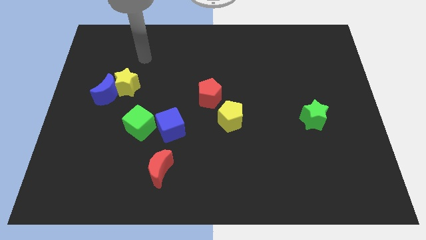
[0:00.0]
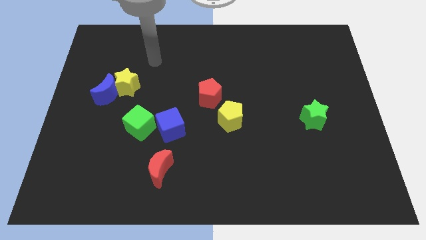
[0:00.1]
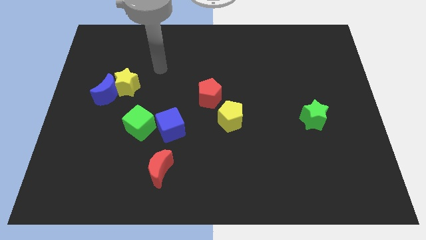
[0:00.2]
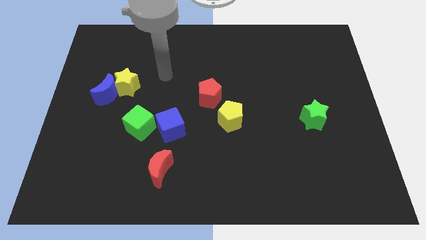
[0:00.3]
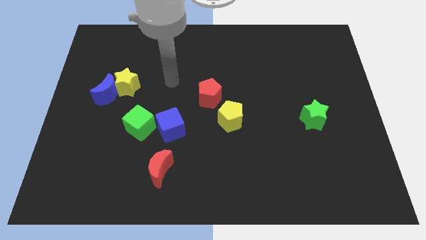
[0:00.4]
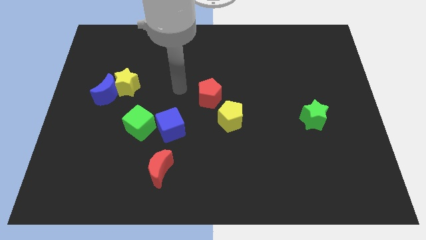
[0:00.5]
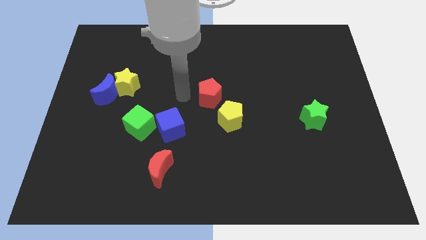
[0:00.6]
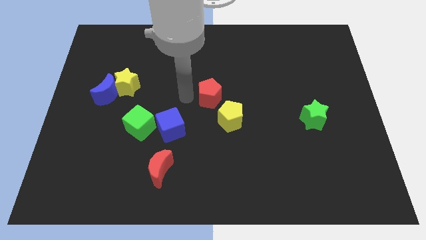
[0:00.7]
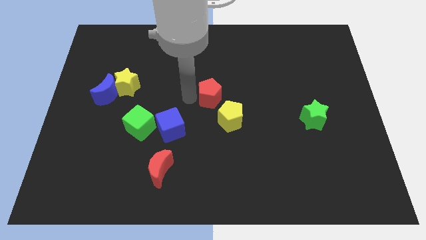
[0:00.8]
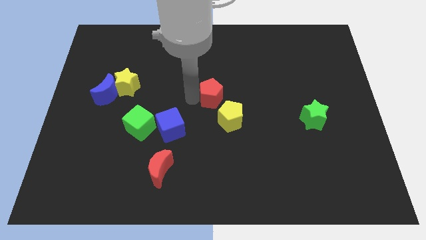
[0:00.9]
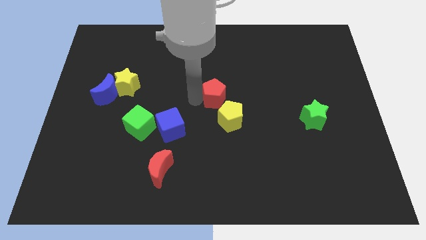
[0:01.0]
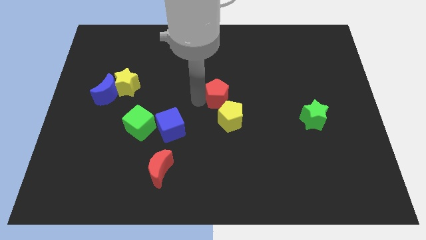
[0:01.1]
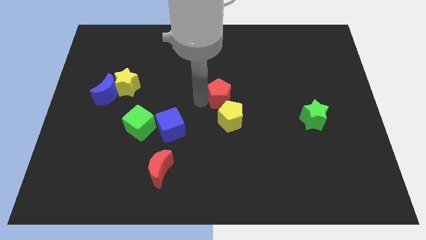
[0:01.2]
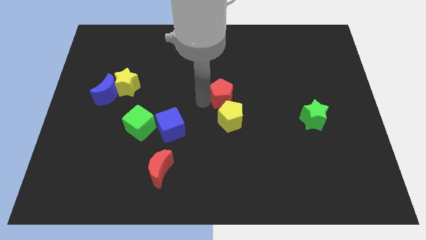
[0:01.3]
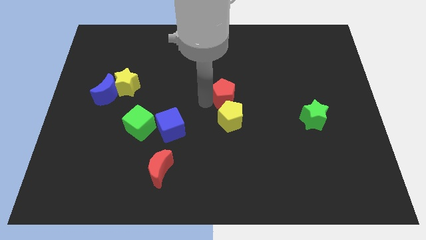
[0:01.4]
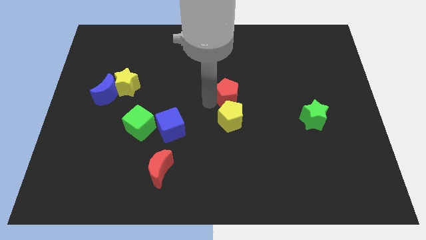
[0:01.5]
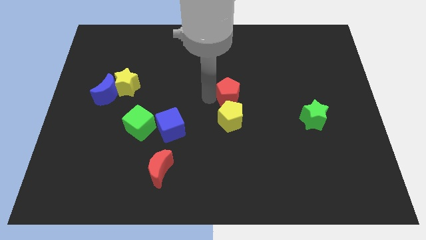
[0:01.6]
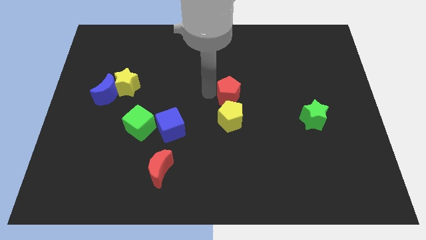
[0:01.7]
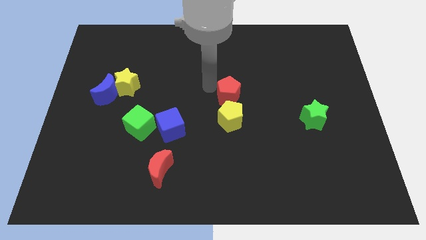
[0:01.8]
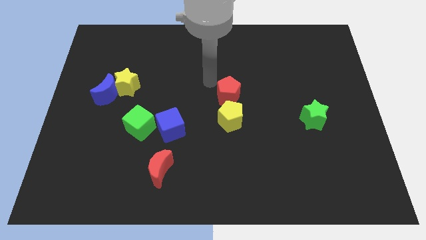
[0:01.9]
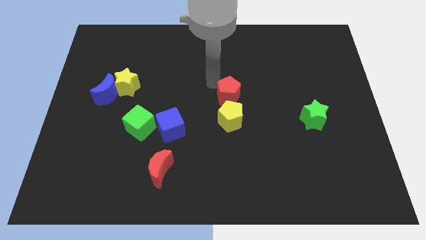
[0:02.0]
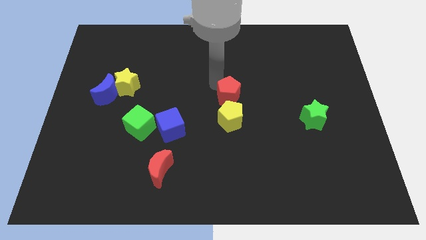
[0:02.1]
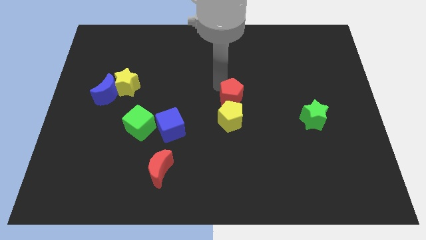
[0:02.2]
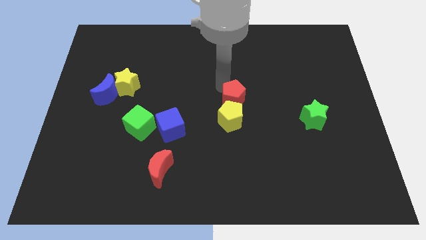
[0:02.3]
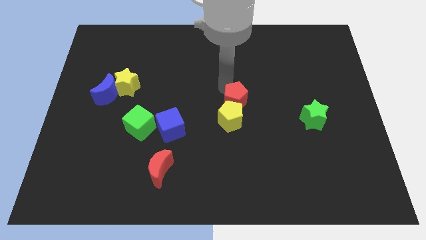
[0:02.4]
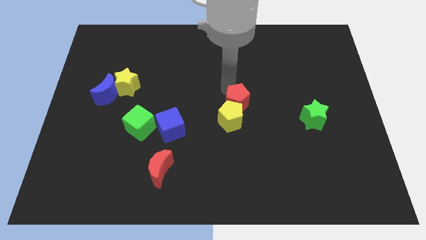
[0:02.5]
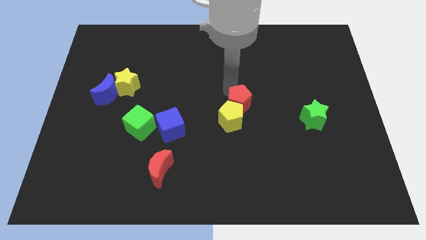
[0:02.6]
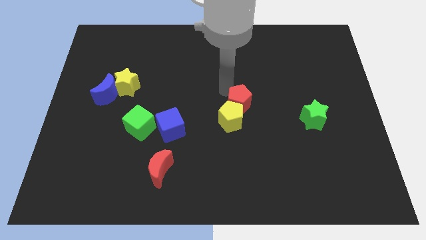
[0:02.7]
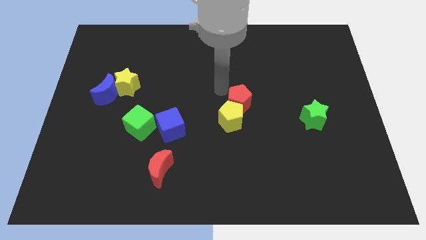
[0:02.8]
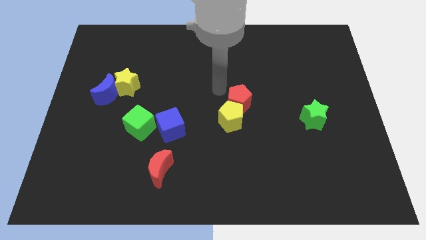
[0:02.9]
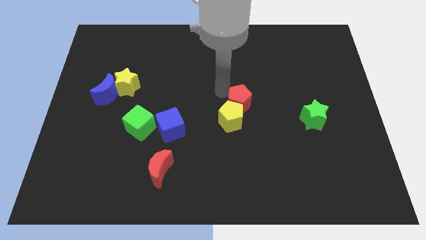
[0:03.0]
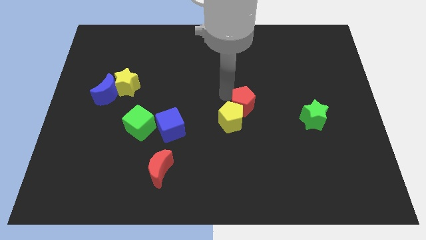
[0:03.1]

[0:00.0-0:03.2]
slightly slide the red pentagon downwards and then to the right

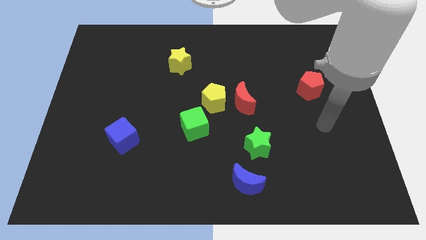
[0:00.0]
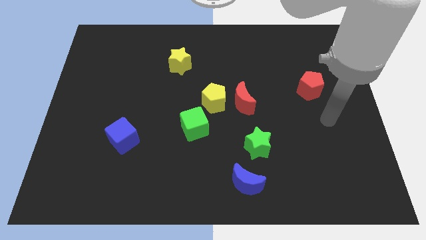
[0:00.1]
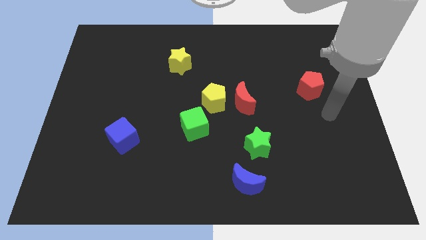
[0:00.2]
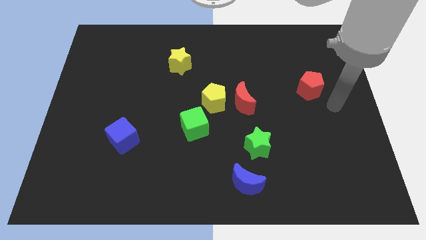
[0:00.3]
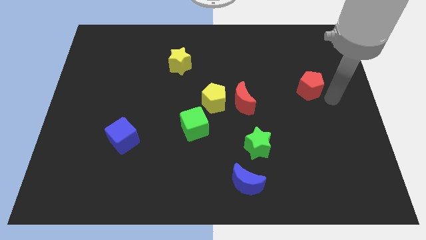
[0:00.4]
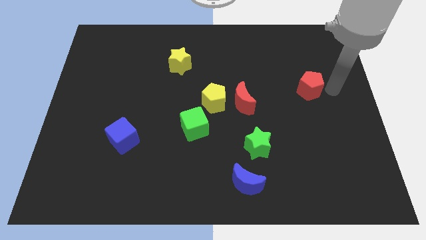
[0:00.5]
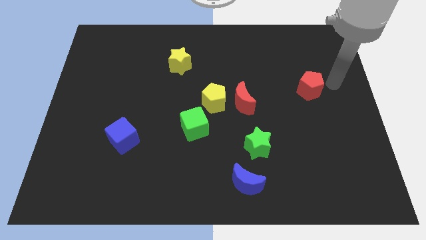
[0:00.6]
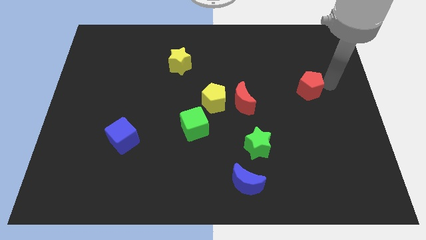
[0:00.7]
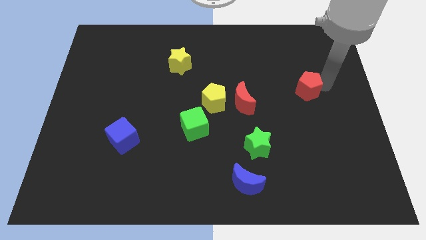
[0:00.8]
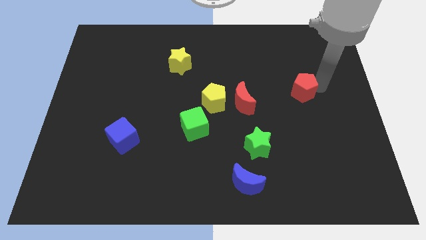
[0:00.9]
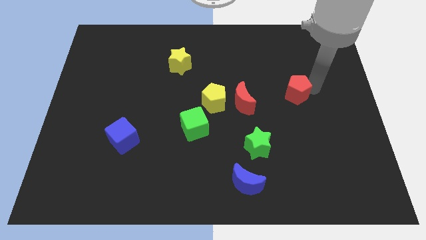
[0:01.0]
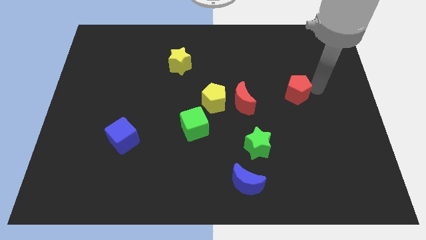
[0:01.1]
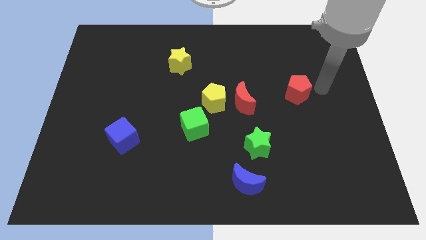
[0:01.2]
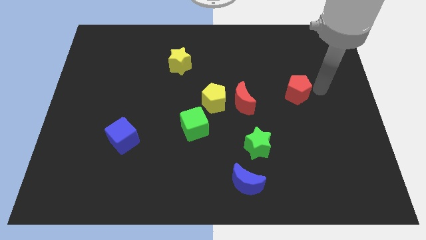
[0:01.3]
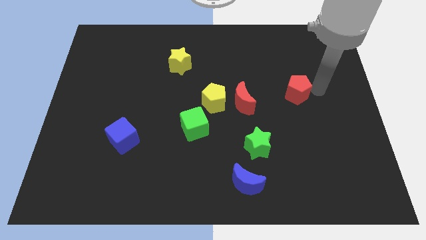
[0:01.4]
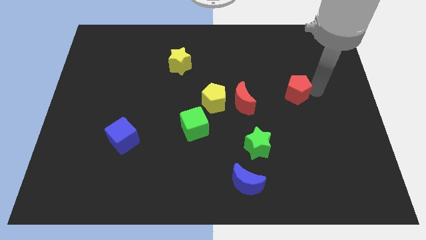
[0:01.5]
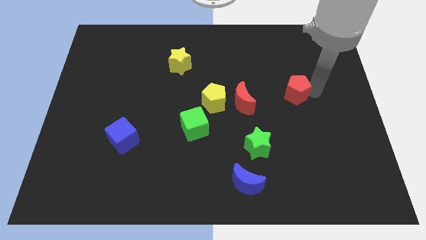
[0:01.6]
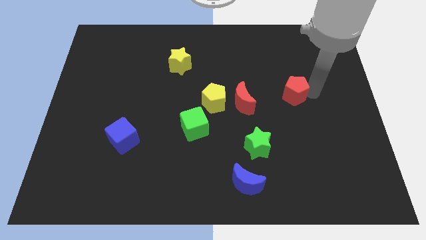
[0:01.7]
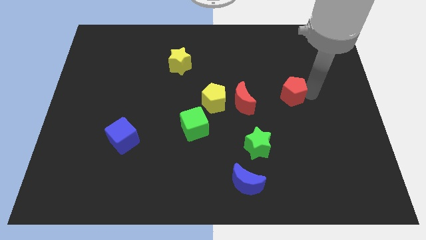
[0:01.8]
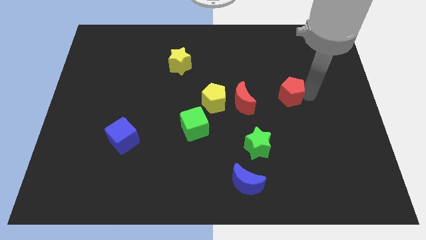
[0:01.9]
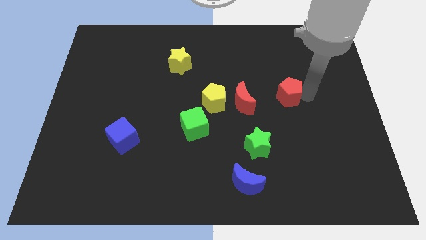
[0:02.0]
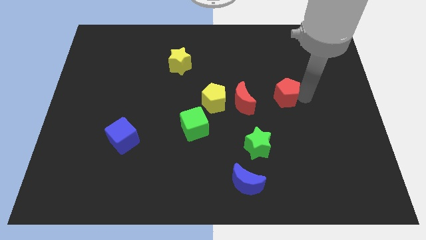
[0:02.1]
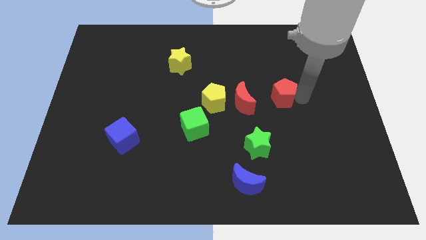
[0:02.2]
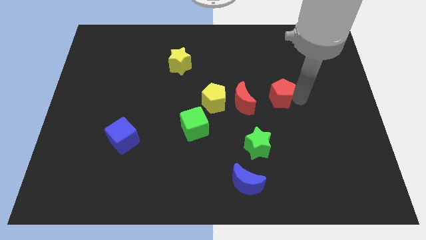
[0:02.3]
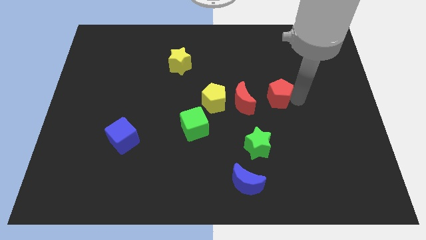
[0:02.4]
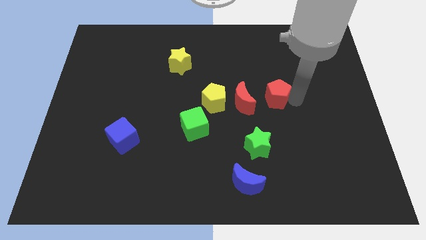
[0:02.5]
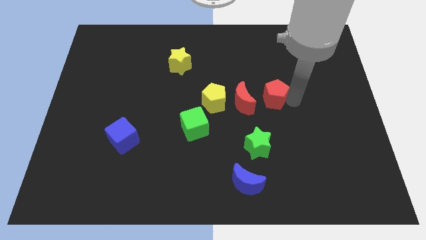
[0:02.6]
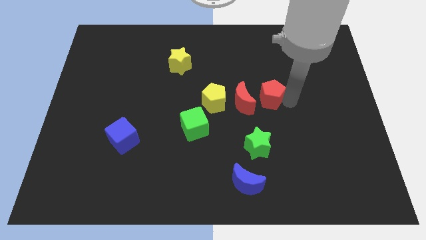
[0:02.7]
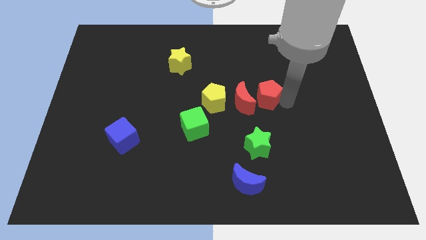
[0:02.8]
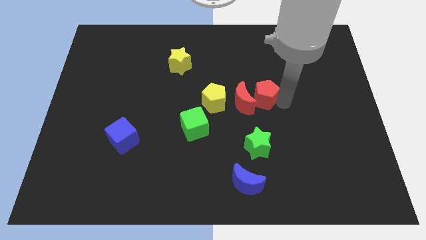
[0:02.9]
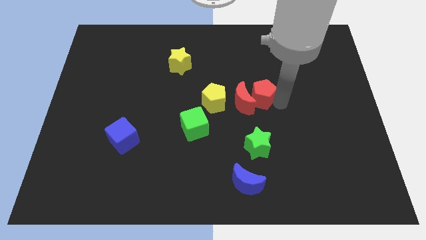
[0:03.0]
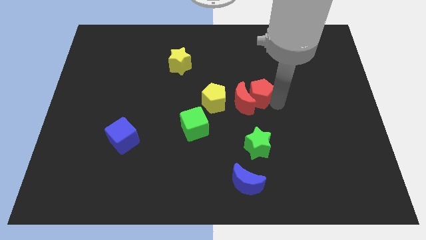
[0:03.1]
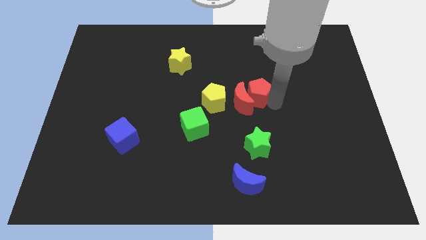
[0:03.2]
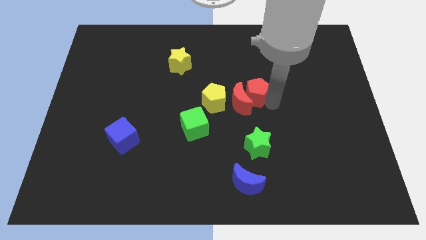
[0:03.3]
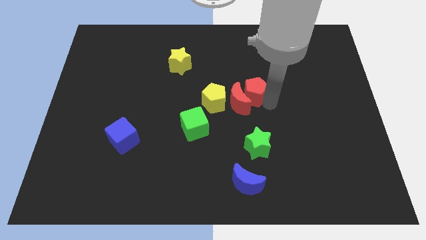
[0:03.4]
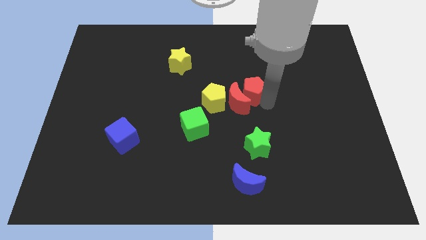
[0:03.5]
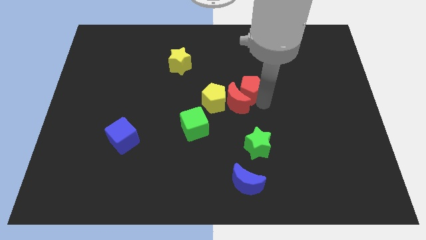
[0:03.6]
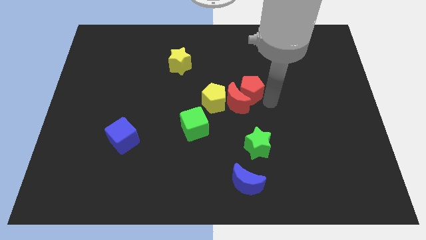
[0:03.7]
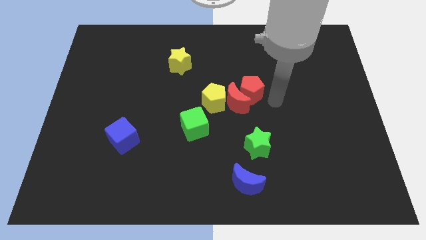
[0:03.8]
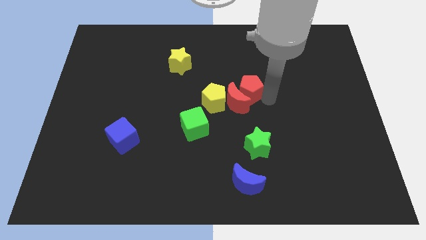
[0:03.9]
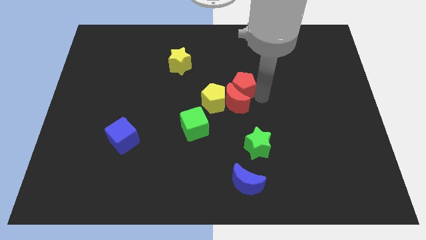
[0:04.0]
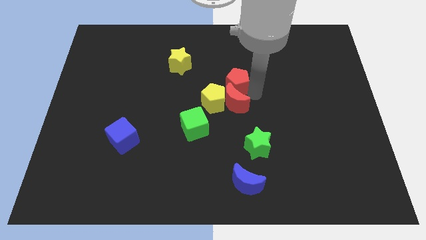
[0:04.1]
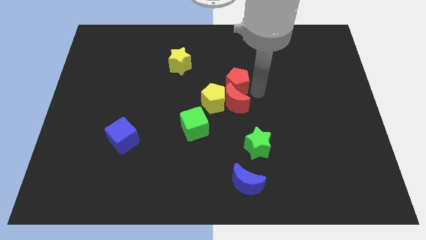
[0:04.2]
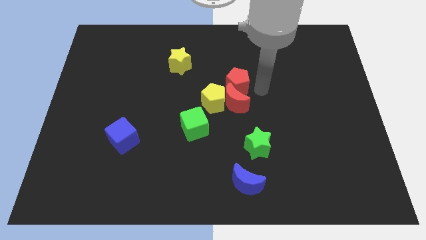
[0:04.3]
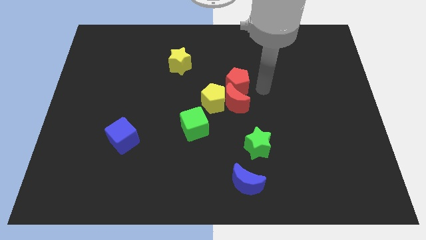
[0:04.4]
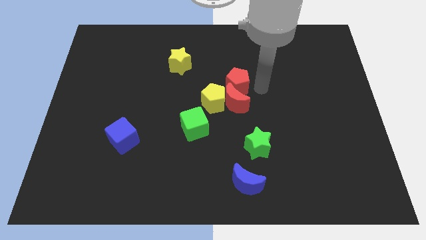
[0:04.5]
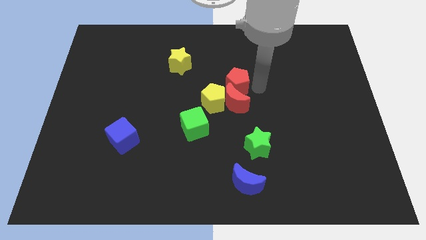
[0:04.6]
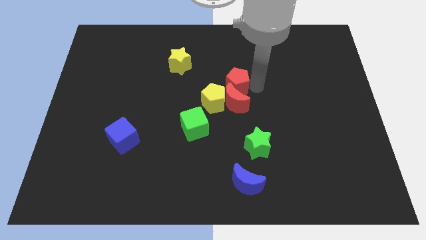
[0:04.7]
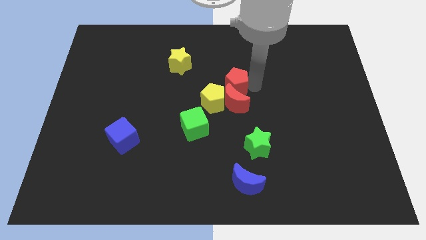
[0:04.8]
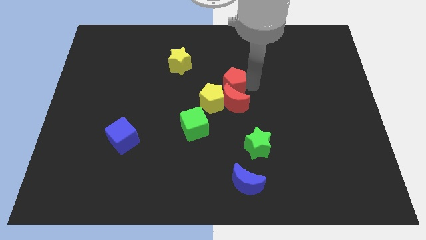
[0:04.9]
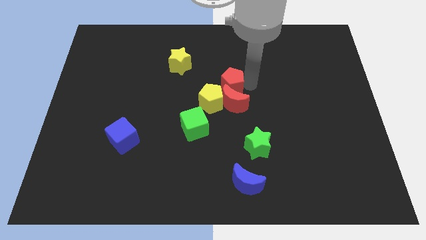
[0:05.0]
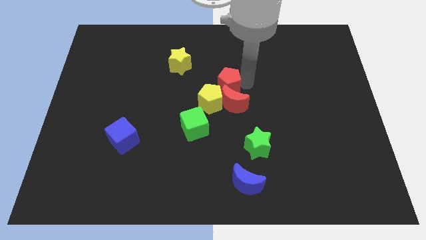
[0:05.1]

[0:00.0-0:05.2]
slide the red pentagon left

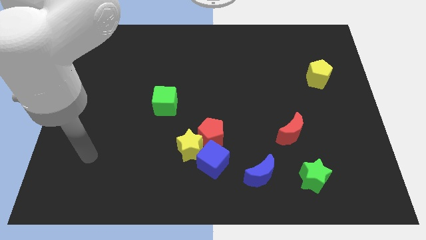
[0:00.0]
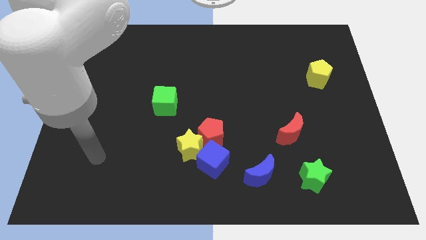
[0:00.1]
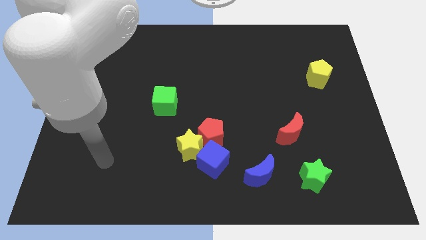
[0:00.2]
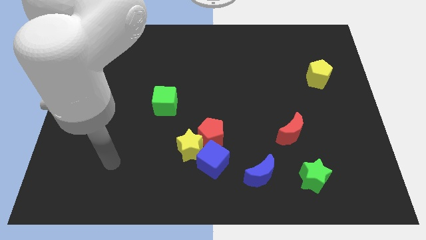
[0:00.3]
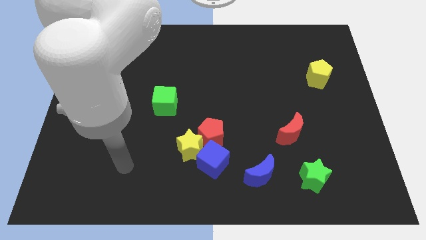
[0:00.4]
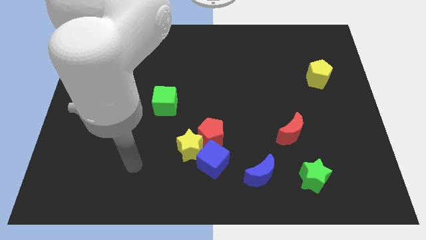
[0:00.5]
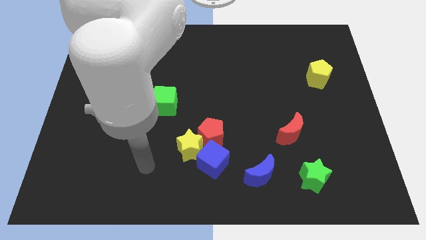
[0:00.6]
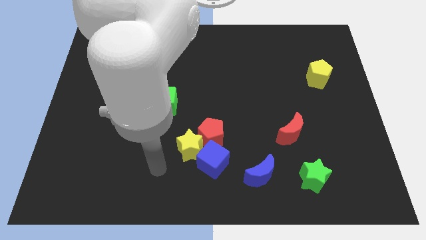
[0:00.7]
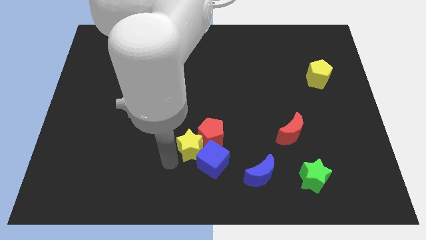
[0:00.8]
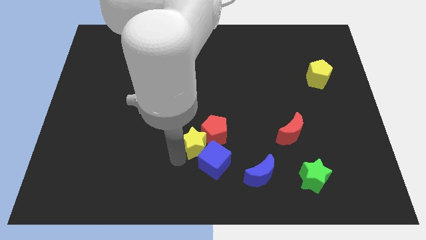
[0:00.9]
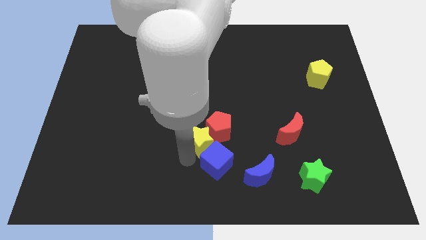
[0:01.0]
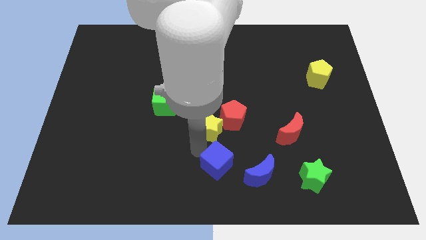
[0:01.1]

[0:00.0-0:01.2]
move the red pentagon a little bit diagonally upwards and to the right
